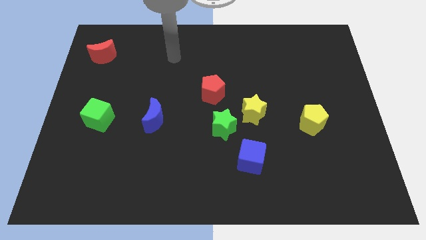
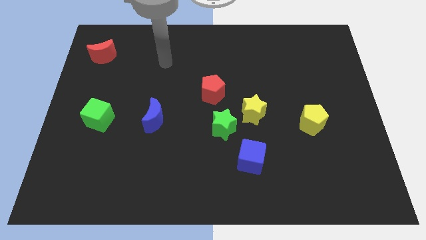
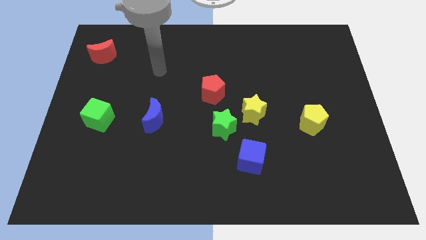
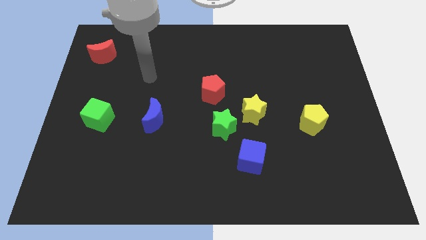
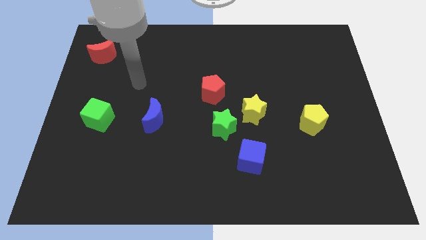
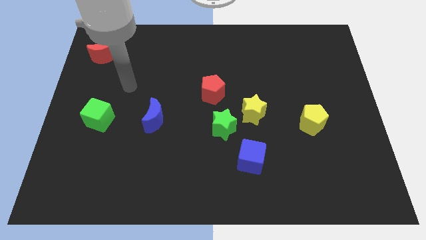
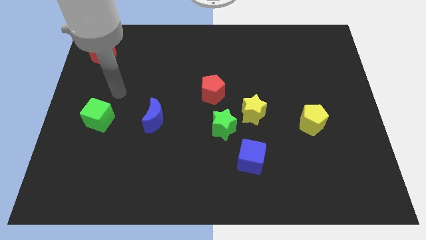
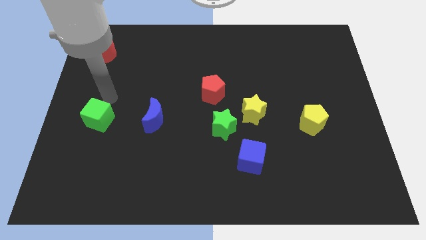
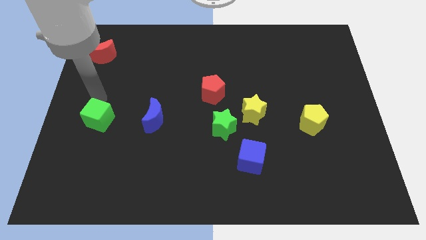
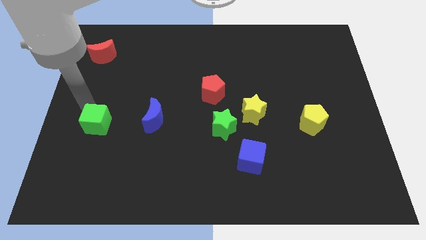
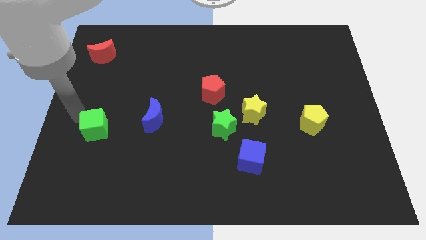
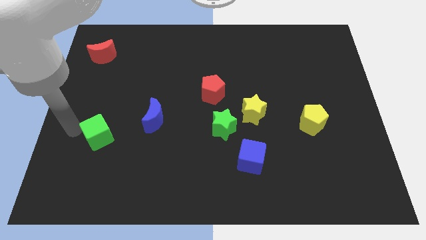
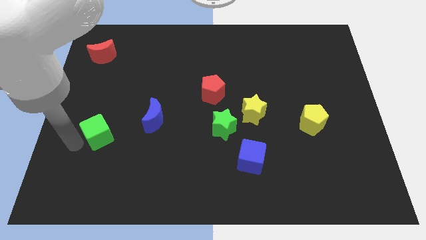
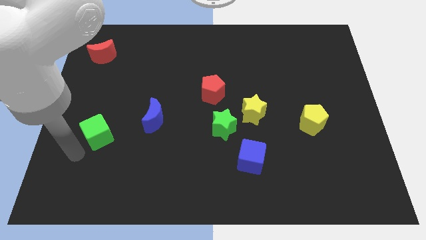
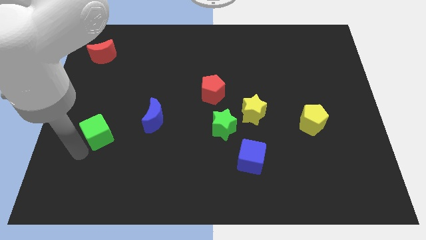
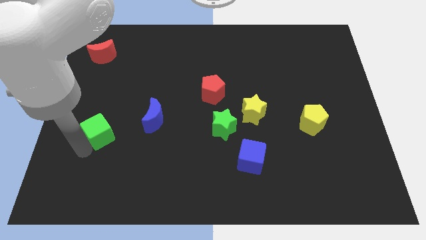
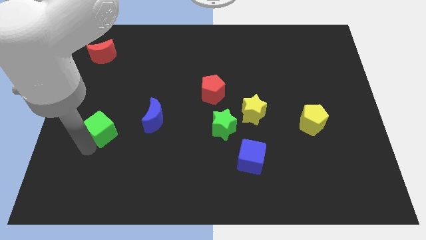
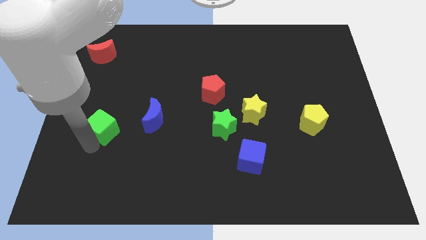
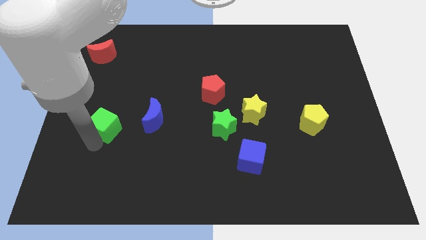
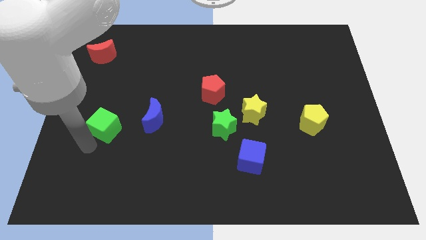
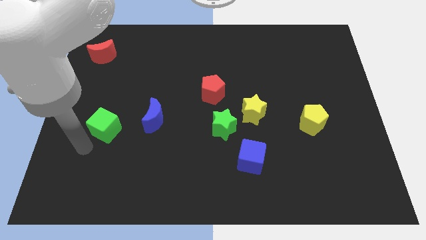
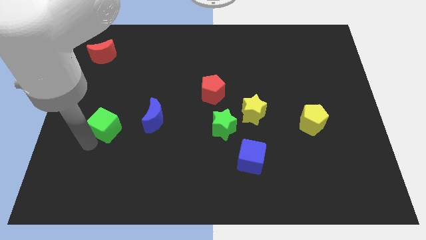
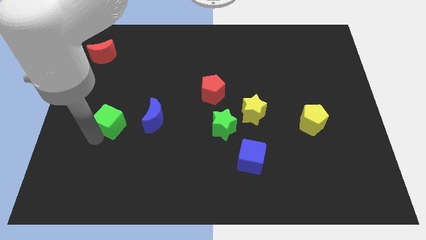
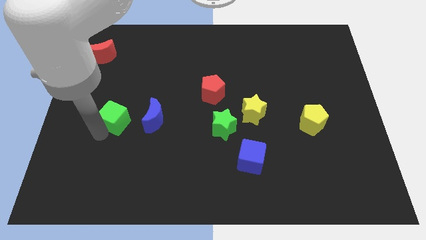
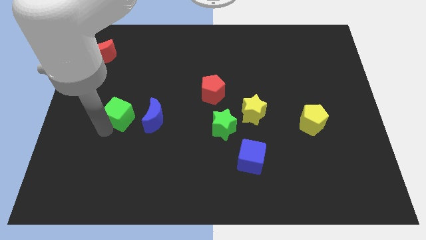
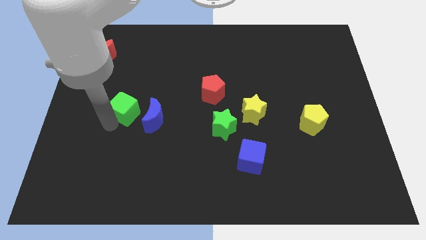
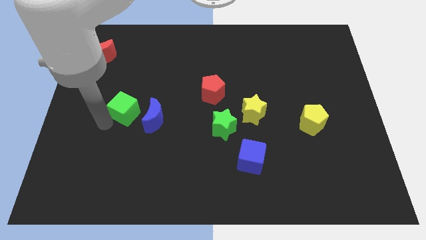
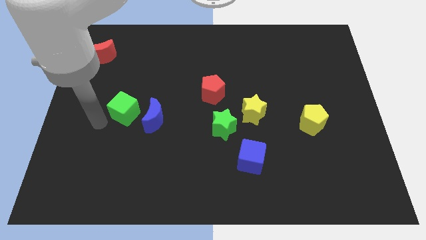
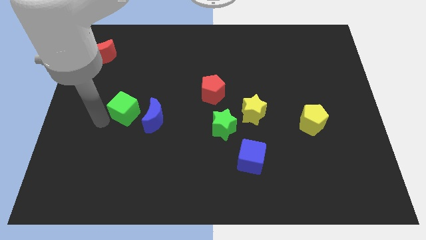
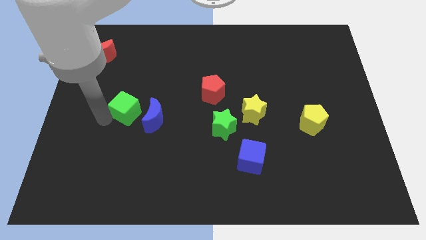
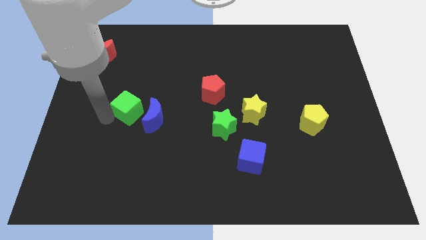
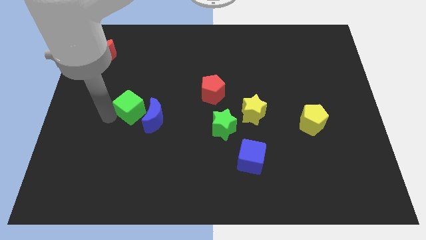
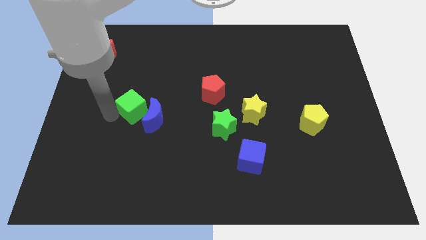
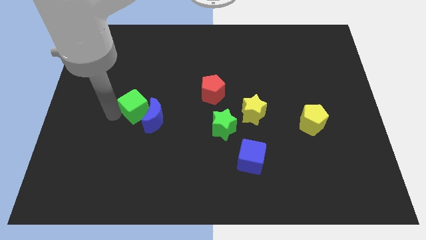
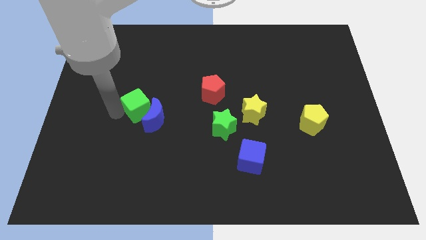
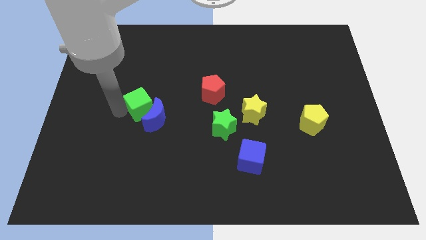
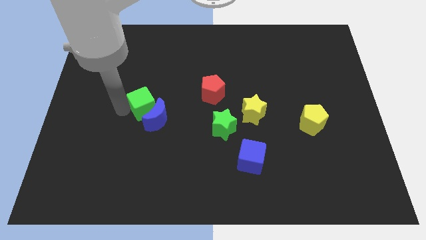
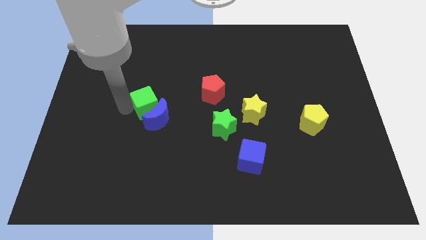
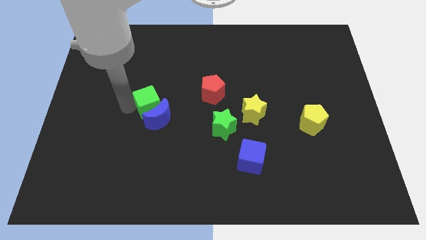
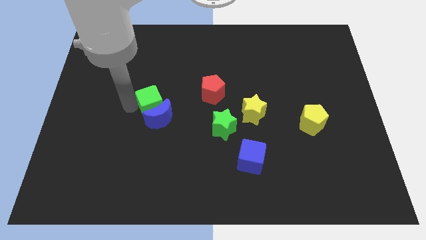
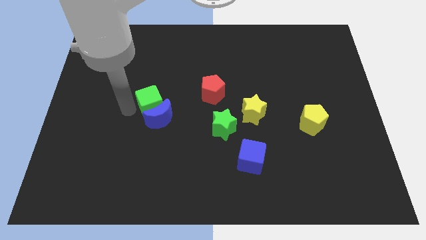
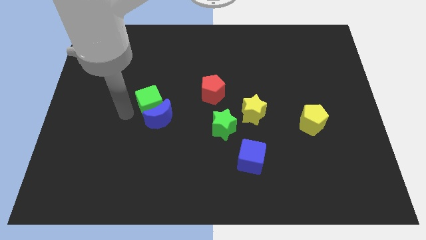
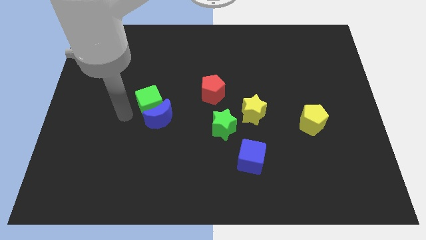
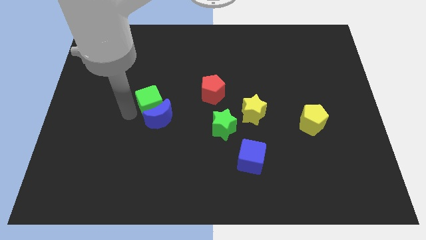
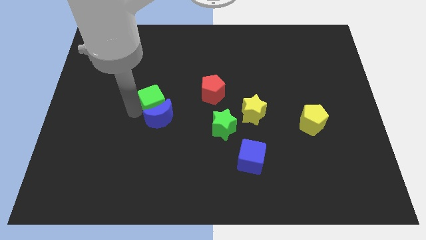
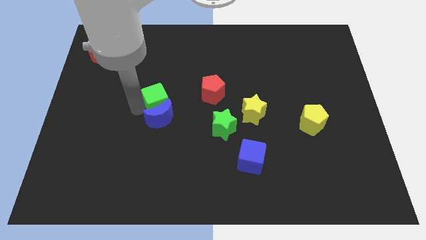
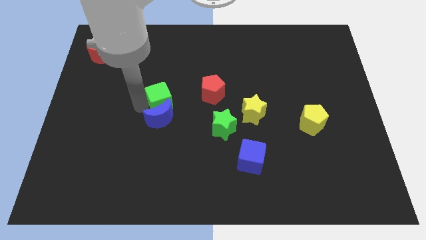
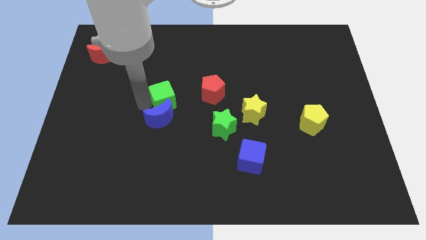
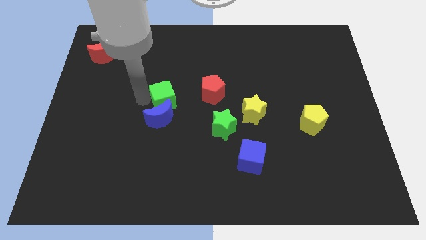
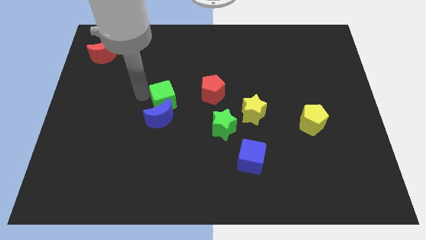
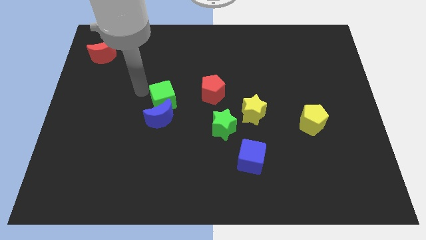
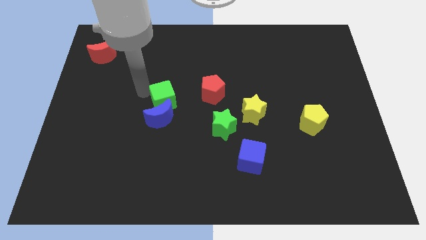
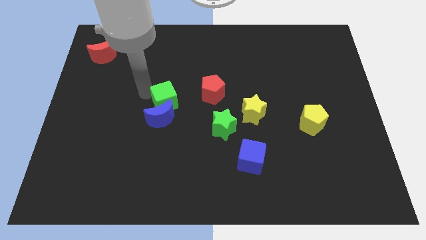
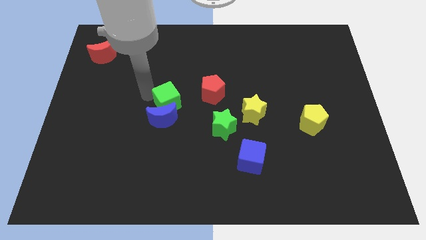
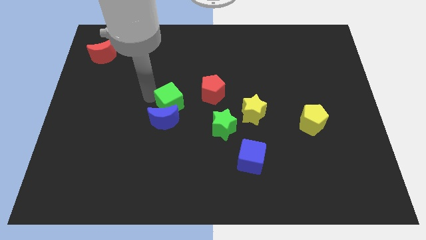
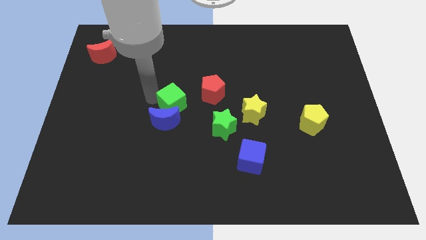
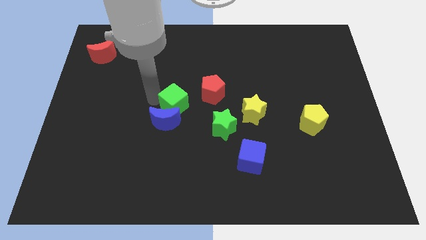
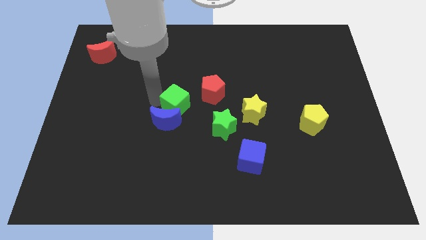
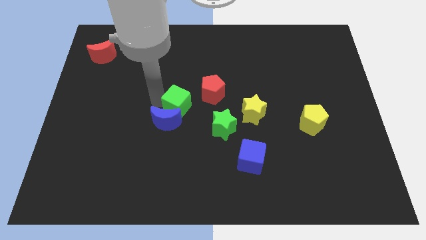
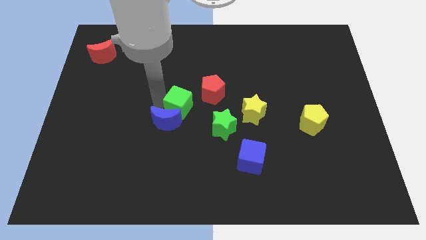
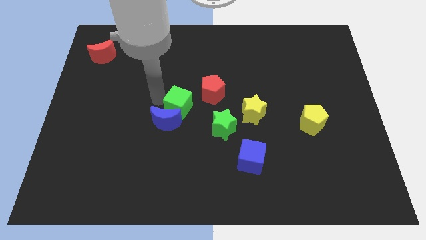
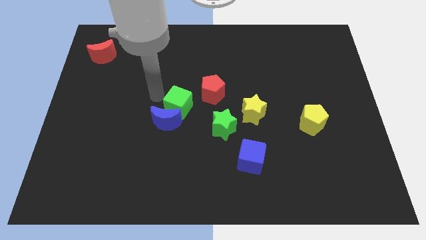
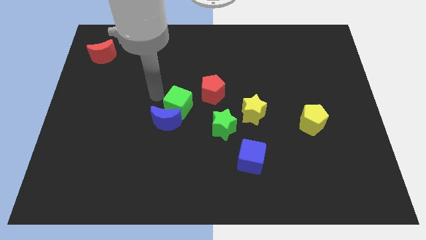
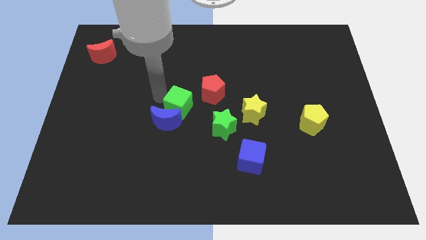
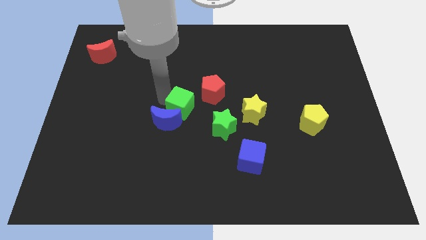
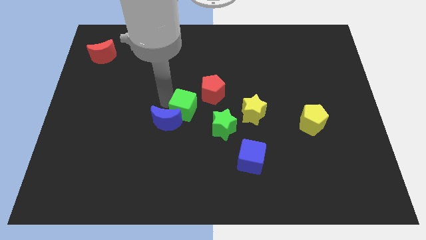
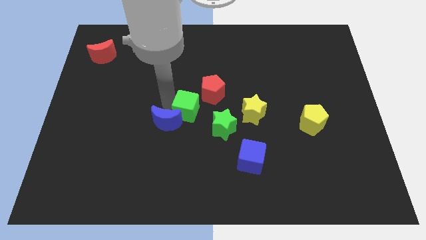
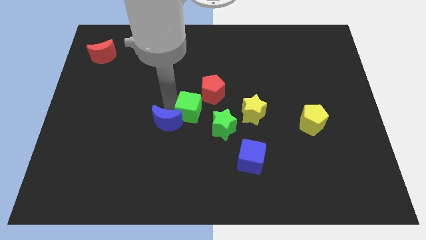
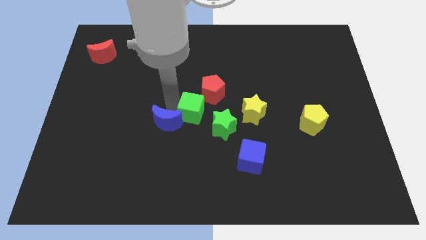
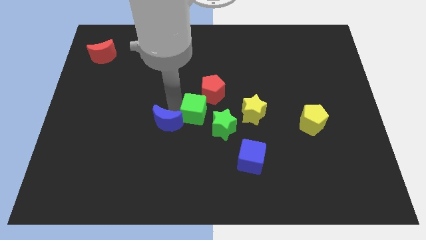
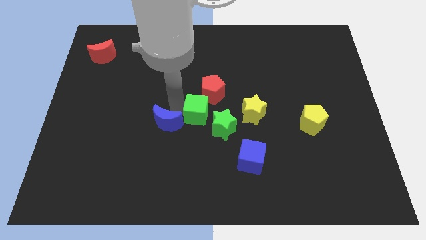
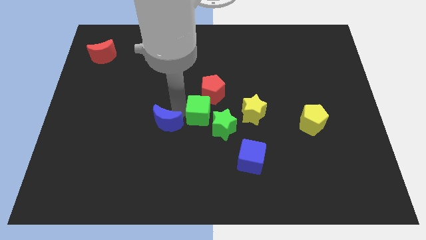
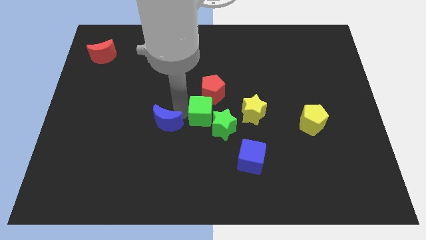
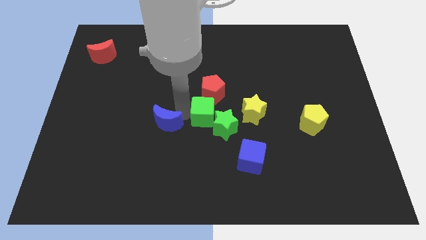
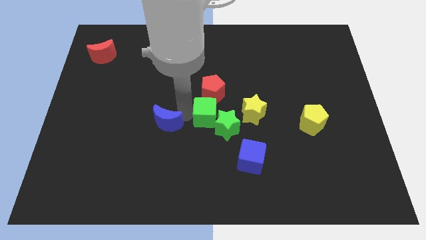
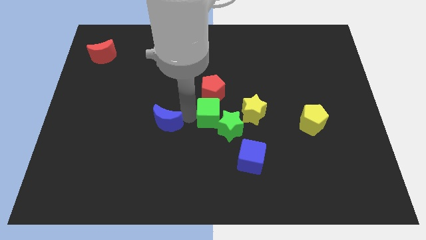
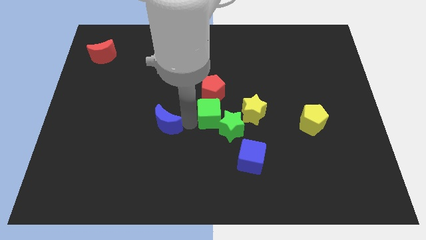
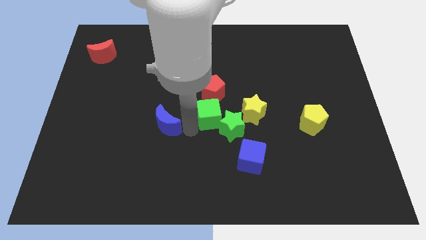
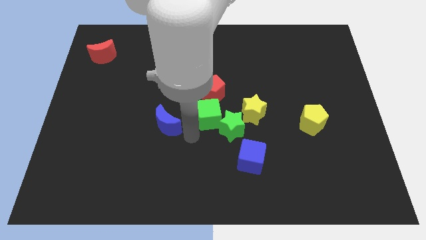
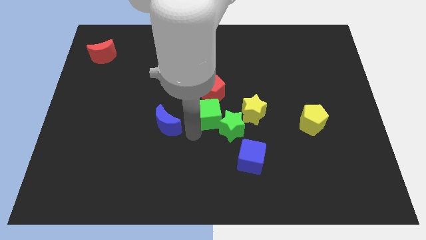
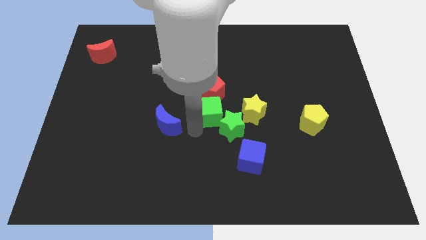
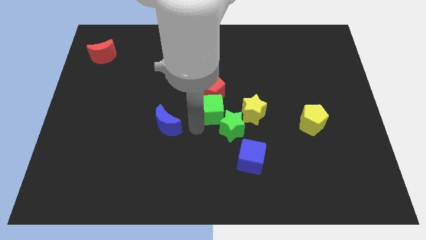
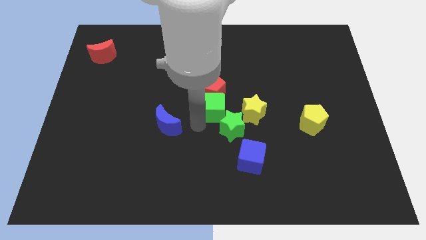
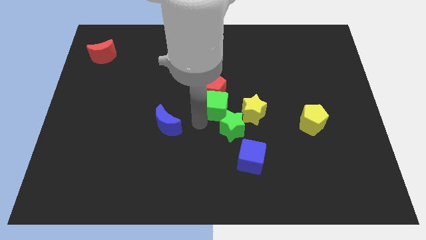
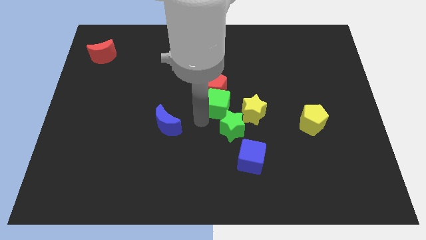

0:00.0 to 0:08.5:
push the green cube to the top left of the yellow star
